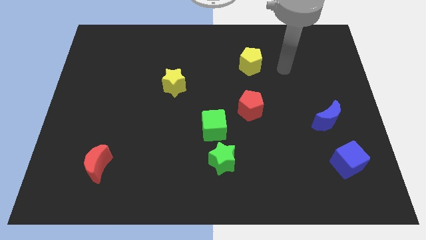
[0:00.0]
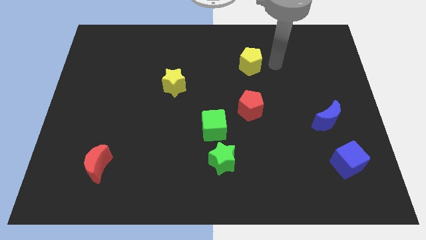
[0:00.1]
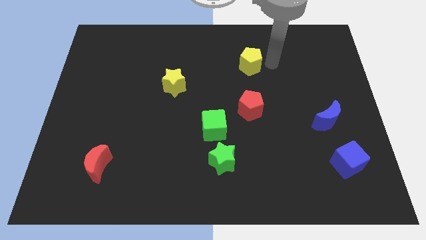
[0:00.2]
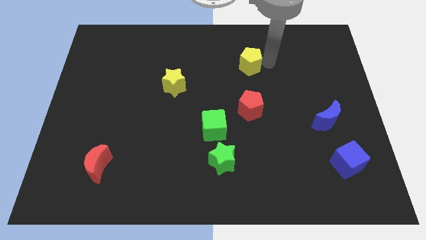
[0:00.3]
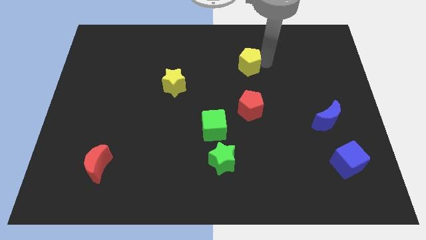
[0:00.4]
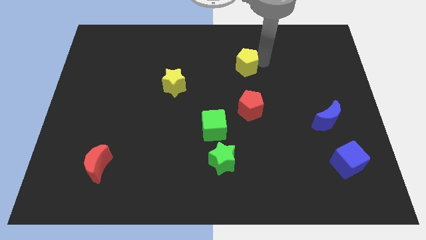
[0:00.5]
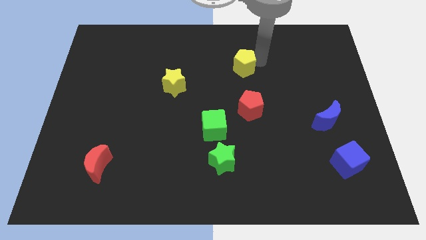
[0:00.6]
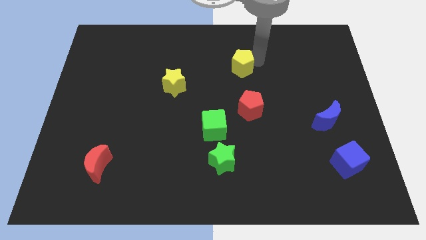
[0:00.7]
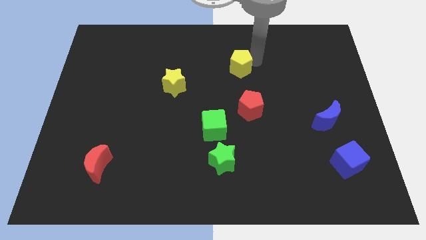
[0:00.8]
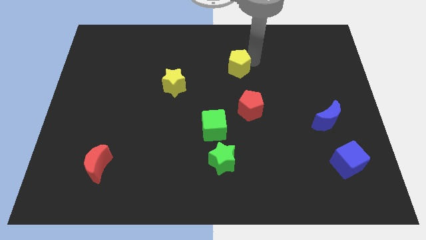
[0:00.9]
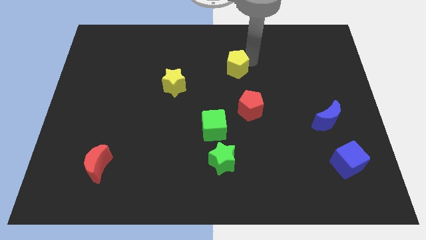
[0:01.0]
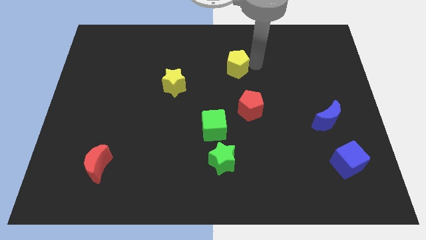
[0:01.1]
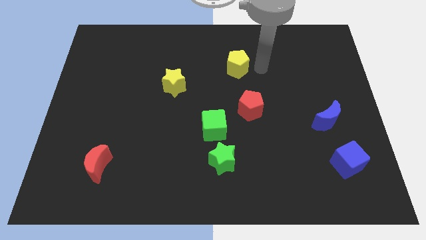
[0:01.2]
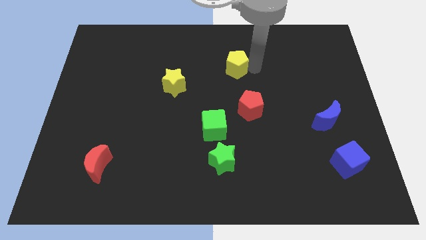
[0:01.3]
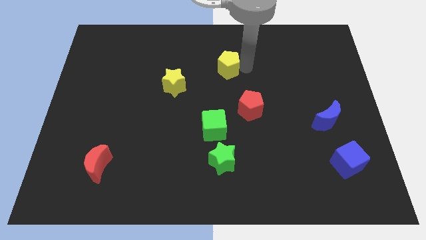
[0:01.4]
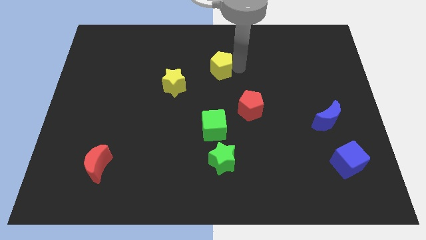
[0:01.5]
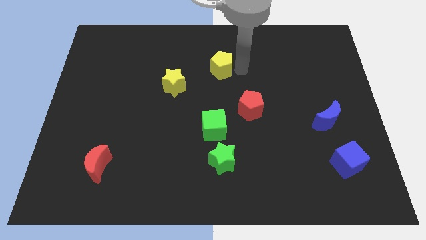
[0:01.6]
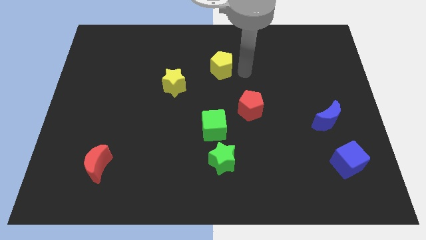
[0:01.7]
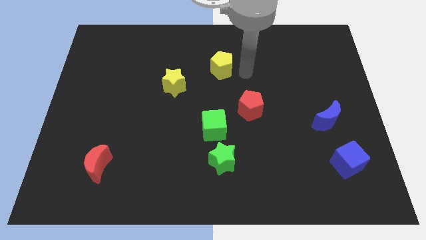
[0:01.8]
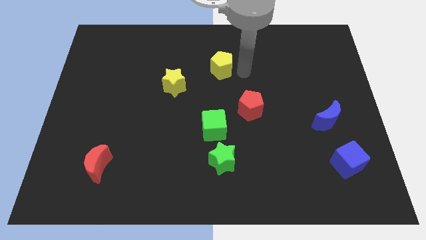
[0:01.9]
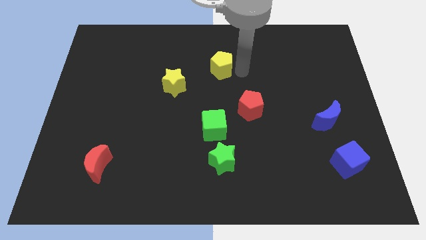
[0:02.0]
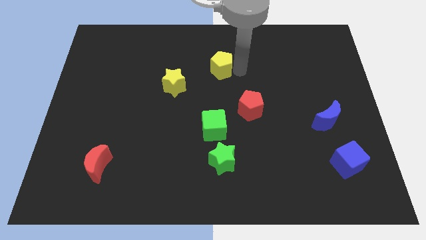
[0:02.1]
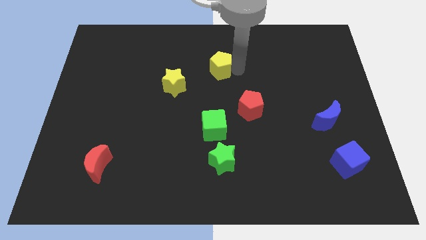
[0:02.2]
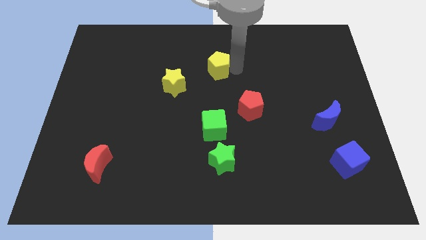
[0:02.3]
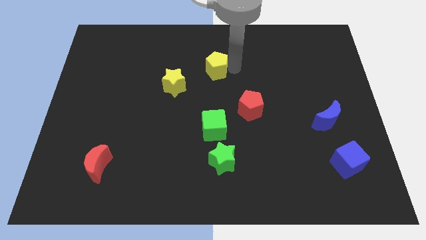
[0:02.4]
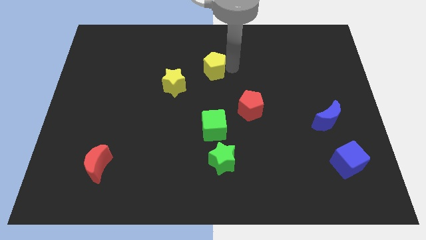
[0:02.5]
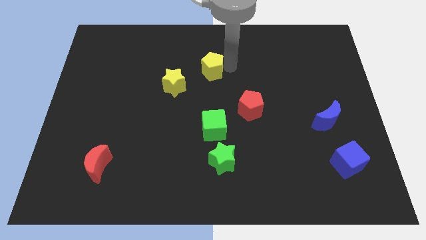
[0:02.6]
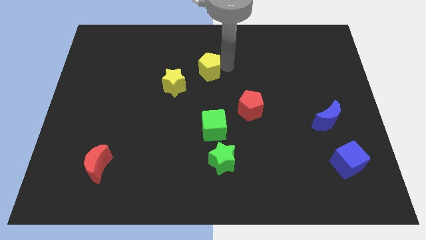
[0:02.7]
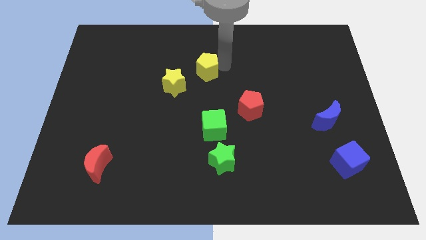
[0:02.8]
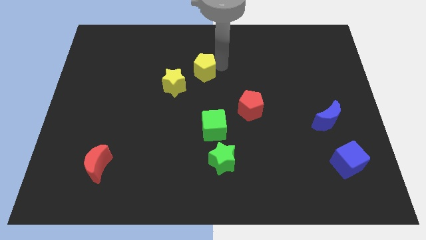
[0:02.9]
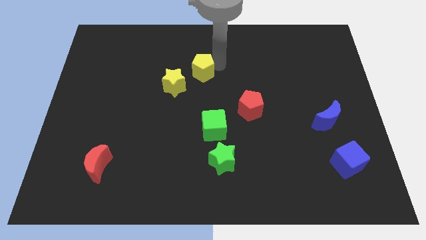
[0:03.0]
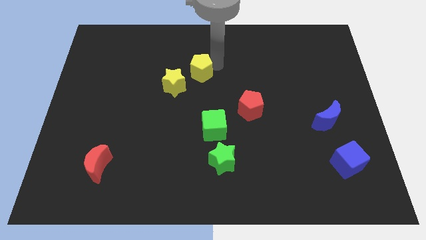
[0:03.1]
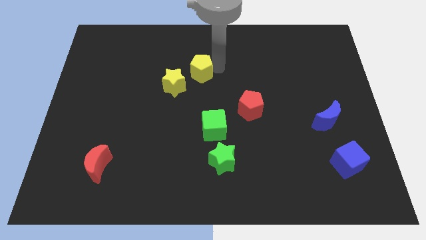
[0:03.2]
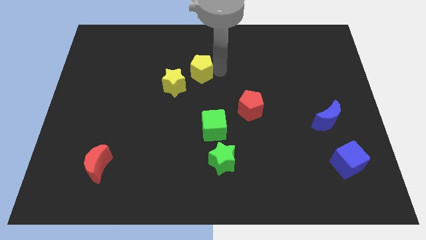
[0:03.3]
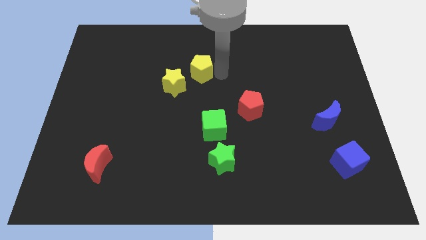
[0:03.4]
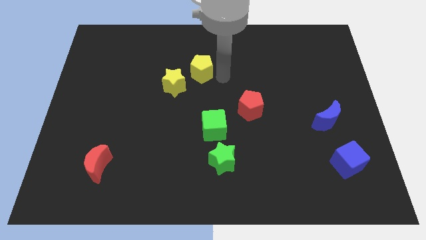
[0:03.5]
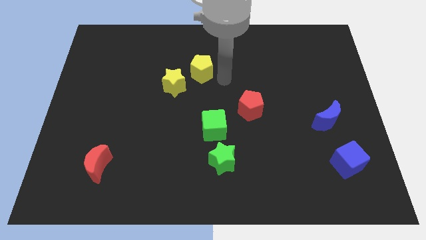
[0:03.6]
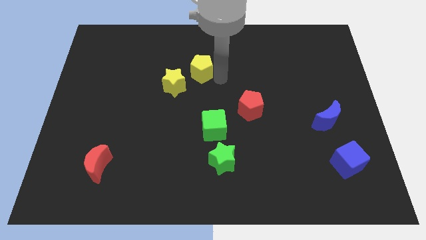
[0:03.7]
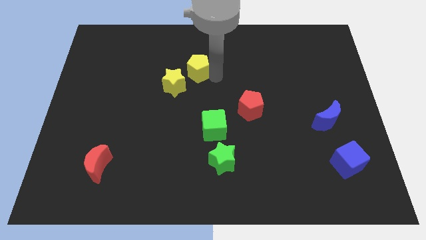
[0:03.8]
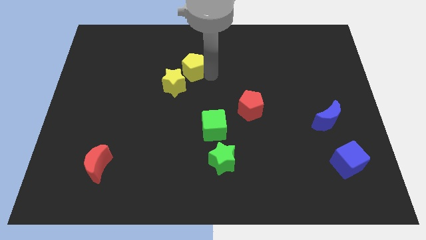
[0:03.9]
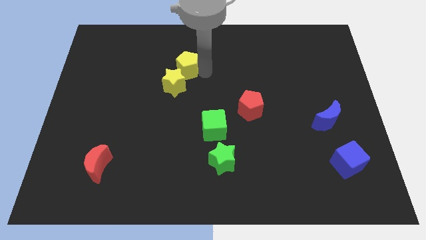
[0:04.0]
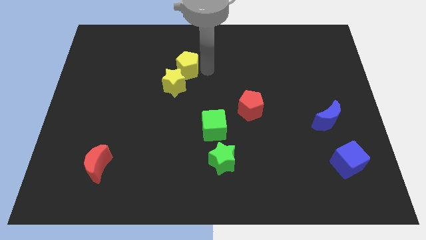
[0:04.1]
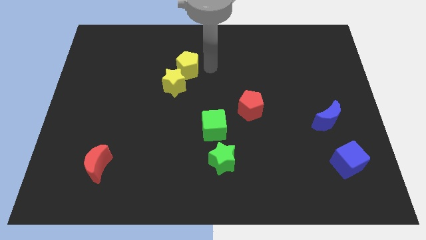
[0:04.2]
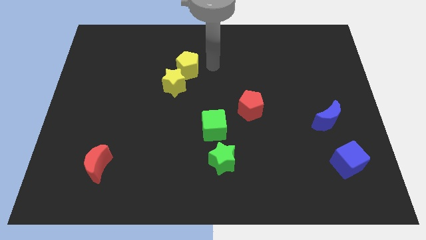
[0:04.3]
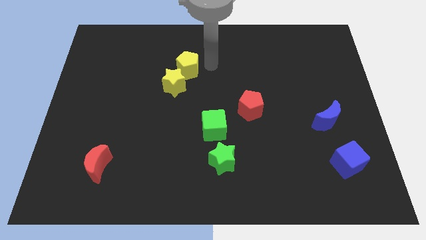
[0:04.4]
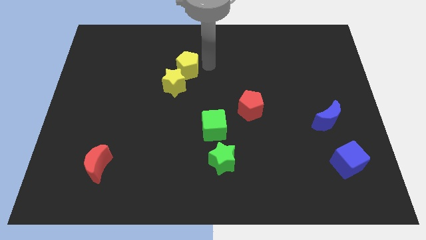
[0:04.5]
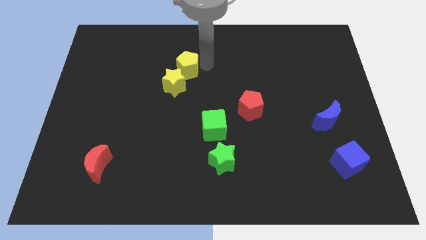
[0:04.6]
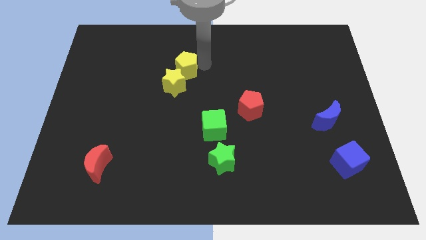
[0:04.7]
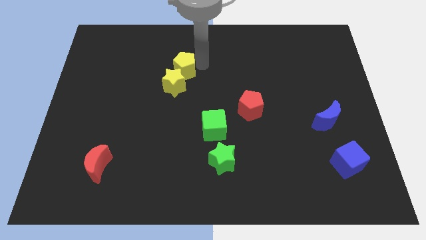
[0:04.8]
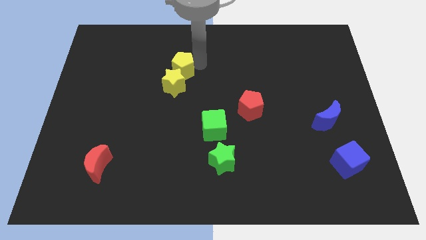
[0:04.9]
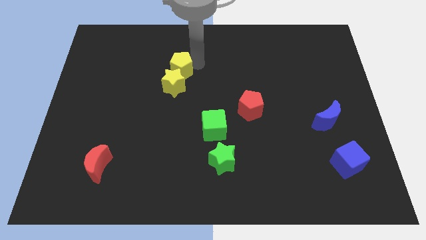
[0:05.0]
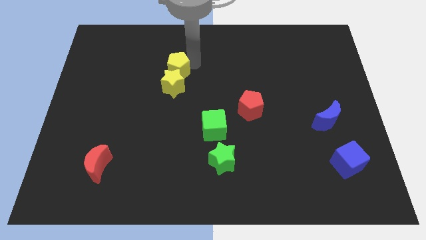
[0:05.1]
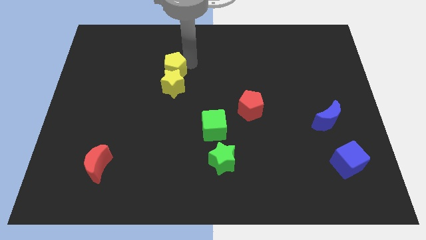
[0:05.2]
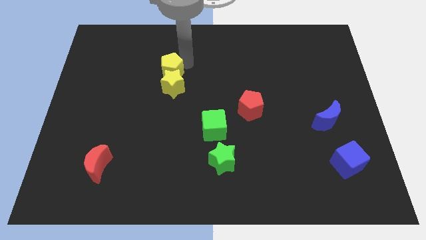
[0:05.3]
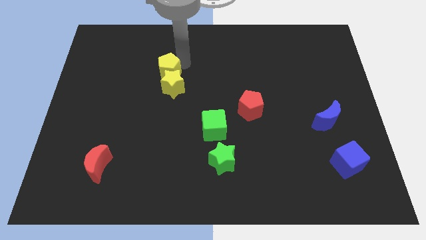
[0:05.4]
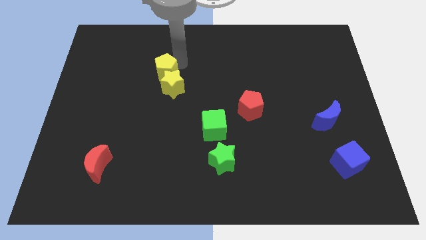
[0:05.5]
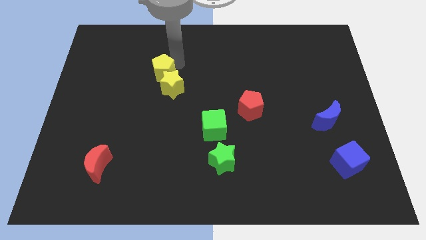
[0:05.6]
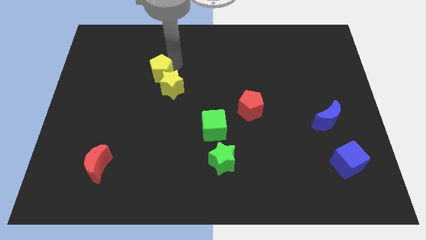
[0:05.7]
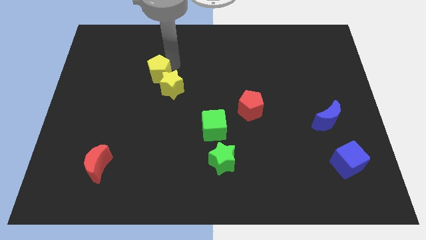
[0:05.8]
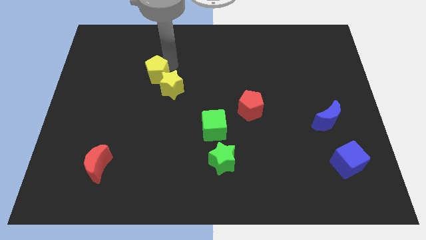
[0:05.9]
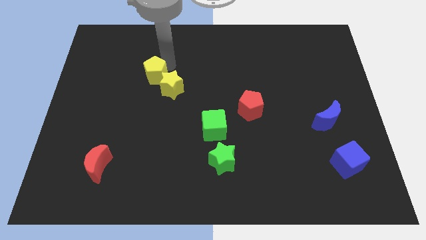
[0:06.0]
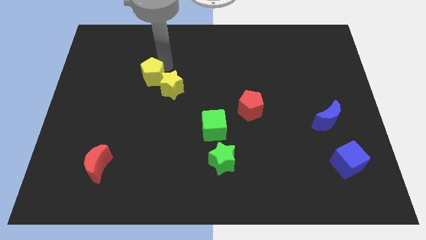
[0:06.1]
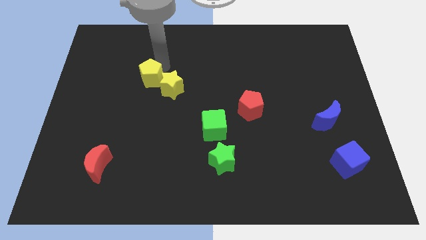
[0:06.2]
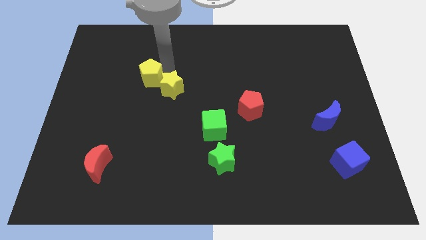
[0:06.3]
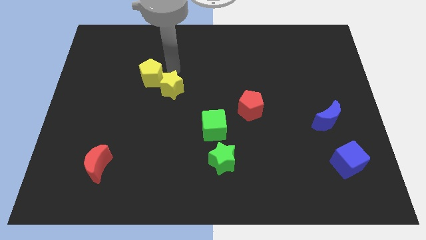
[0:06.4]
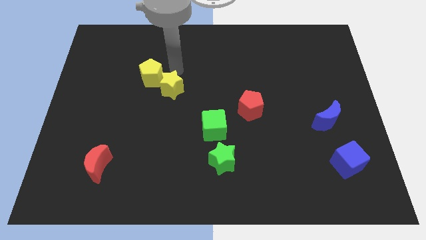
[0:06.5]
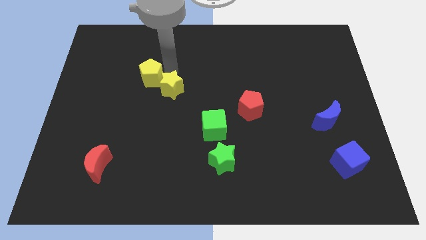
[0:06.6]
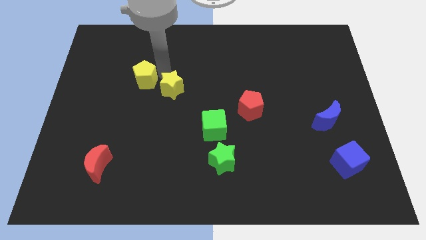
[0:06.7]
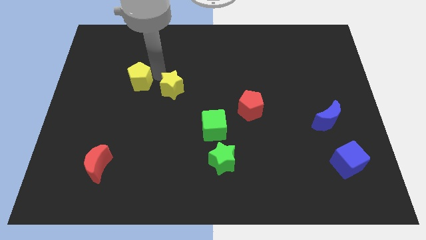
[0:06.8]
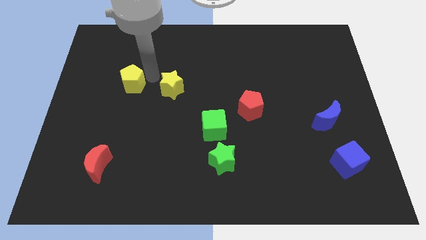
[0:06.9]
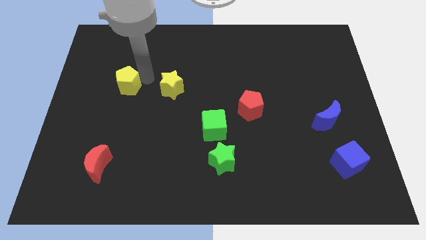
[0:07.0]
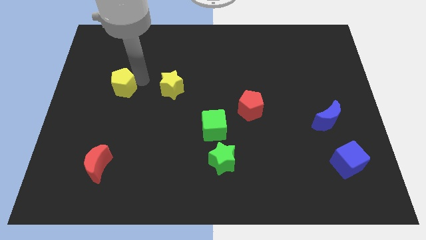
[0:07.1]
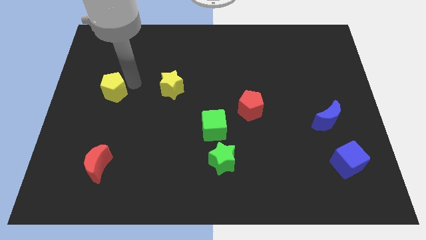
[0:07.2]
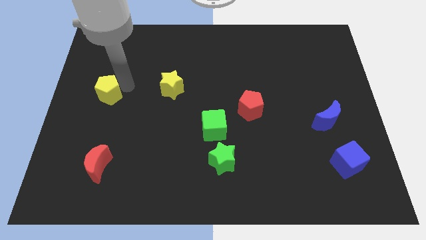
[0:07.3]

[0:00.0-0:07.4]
move the yellow pentagon to the left side of the board
